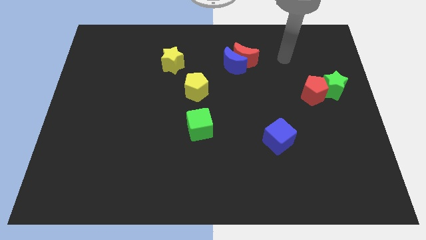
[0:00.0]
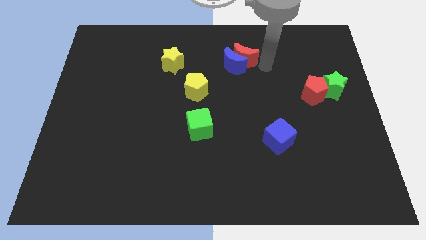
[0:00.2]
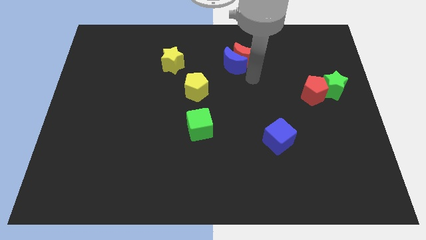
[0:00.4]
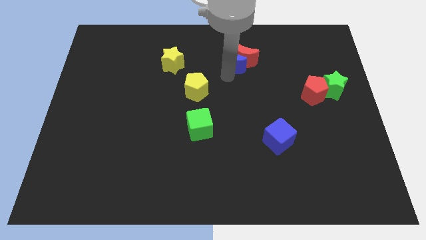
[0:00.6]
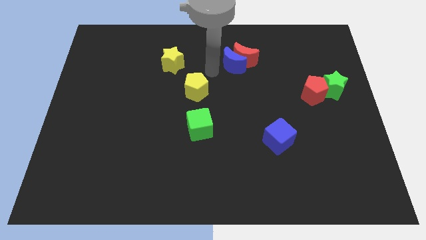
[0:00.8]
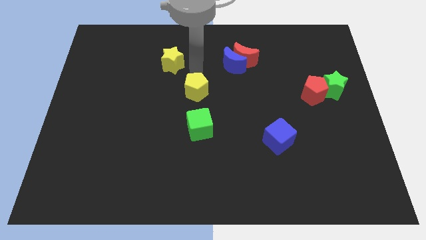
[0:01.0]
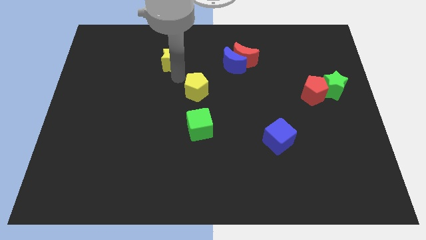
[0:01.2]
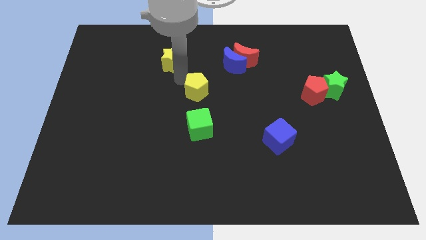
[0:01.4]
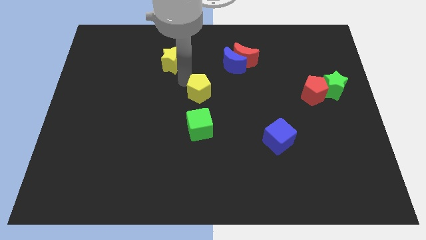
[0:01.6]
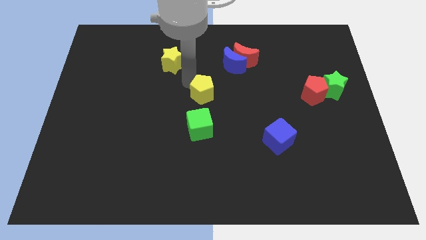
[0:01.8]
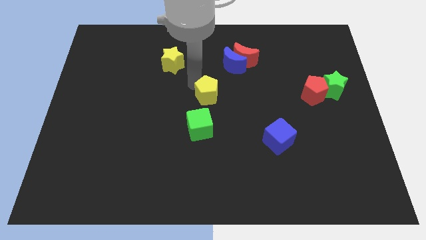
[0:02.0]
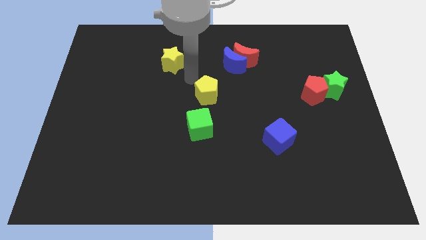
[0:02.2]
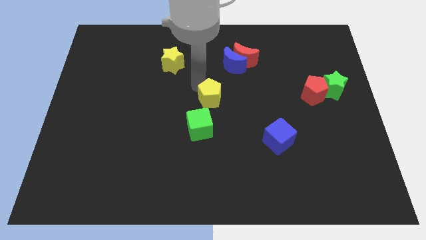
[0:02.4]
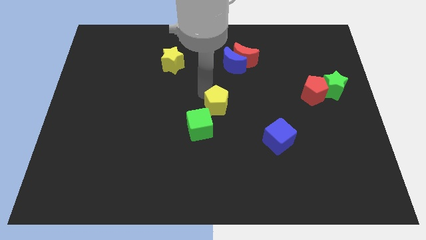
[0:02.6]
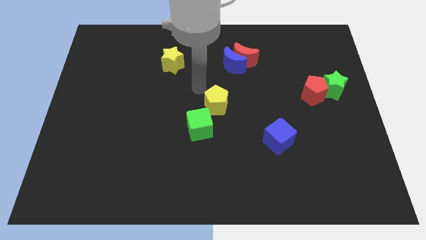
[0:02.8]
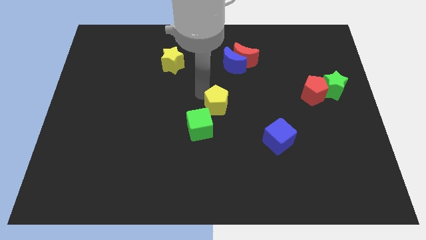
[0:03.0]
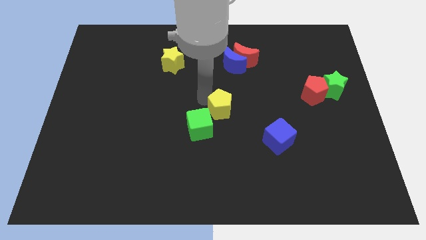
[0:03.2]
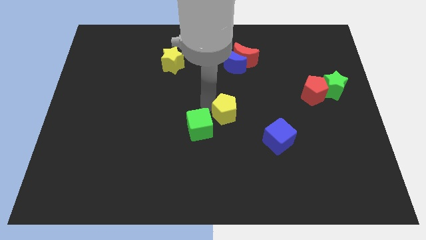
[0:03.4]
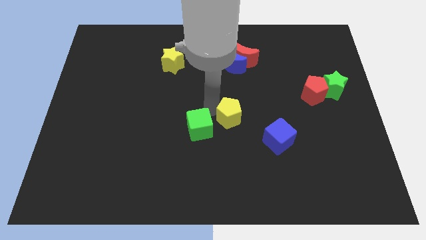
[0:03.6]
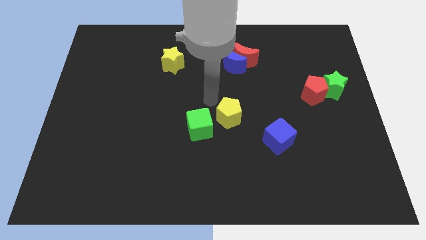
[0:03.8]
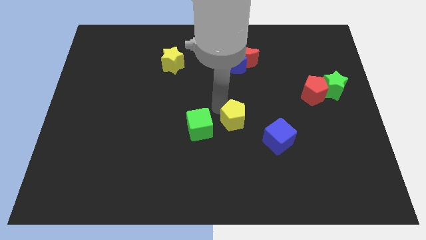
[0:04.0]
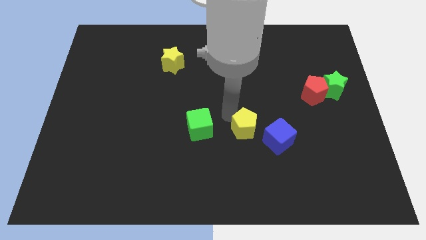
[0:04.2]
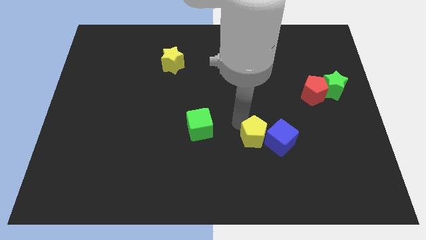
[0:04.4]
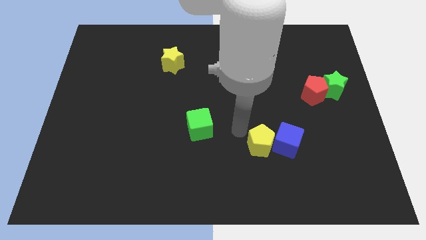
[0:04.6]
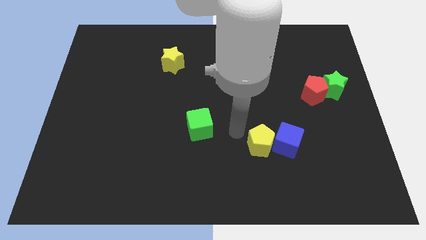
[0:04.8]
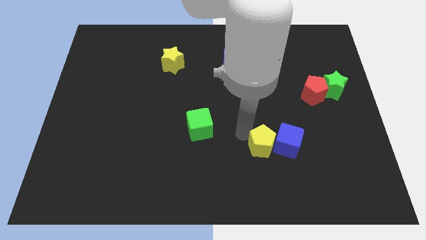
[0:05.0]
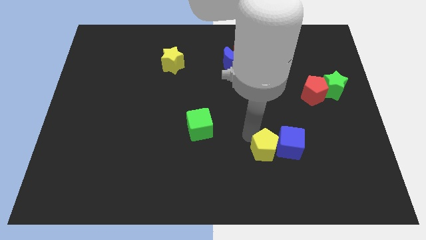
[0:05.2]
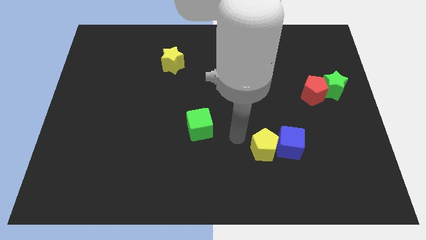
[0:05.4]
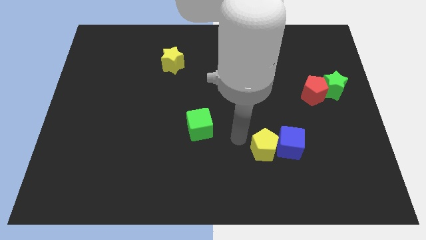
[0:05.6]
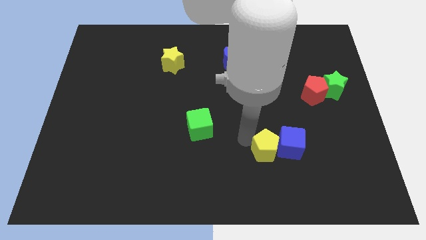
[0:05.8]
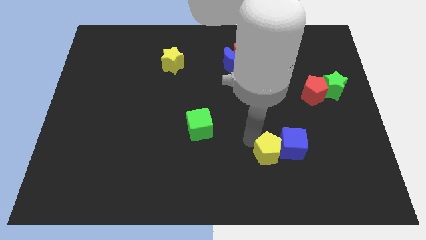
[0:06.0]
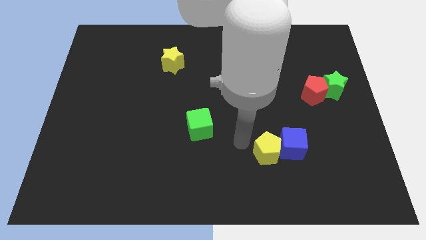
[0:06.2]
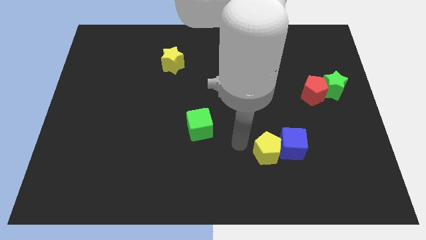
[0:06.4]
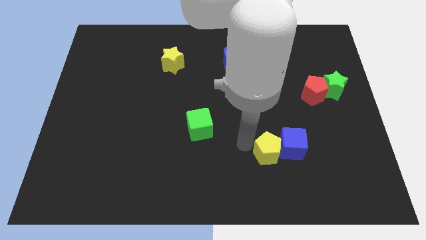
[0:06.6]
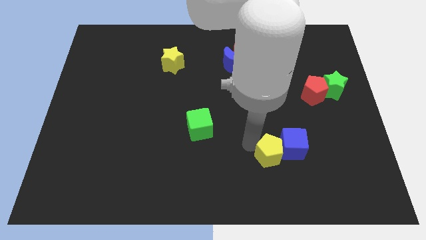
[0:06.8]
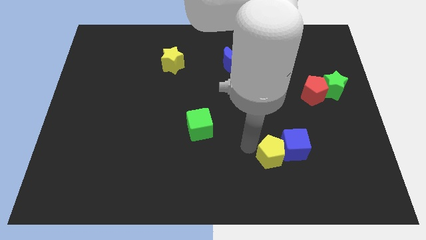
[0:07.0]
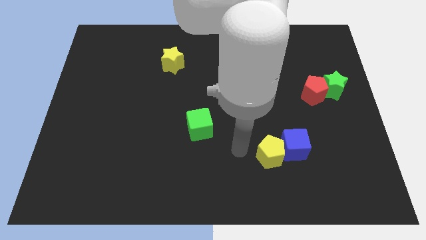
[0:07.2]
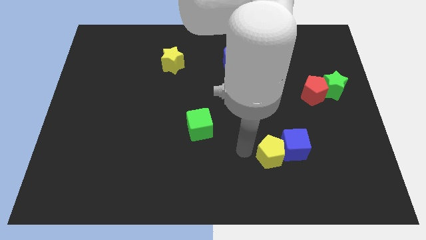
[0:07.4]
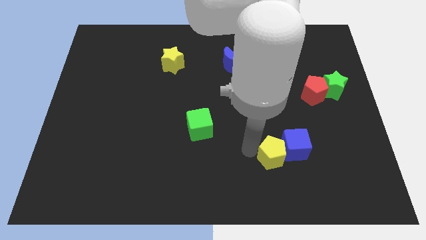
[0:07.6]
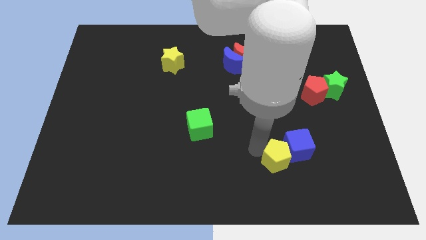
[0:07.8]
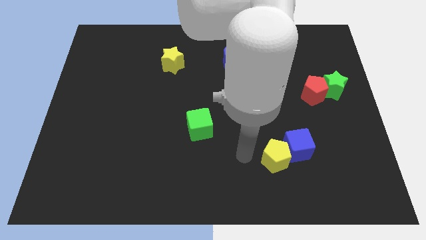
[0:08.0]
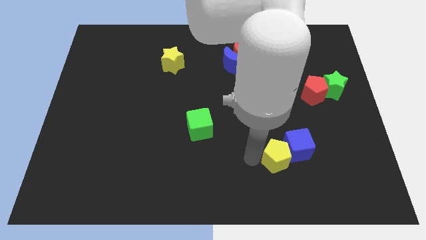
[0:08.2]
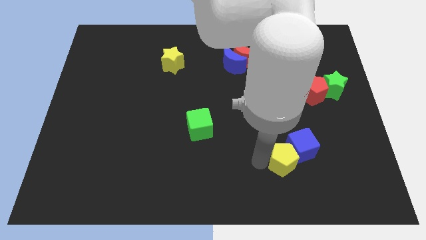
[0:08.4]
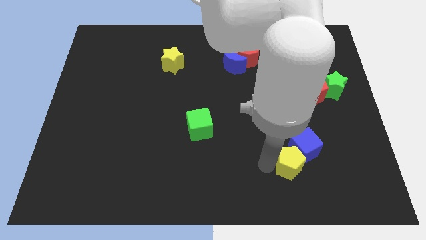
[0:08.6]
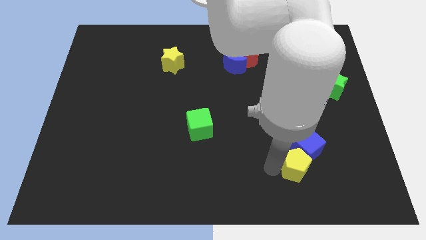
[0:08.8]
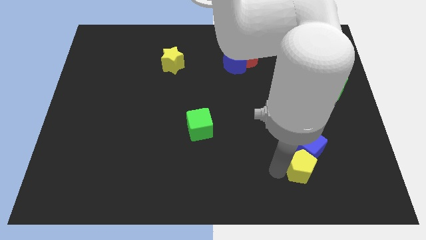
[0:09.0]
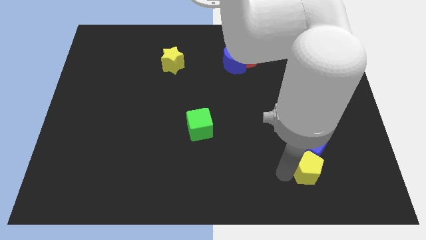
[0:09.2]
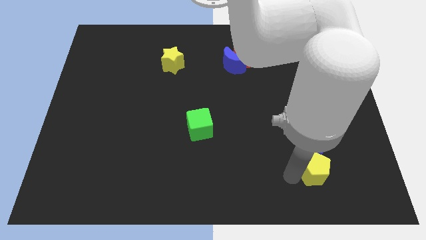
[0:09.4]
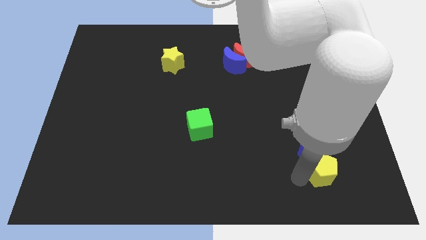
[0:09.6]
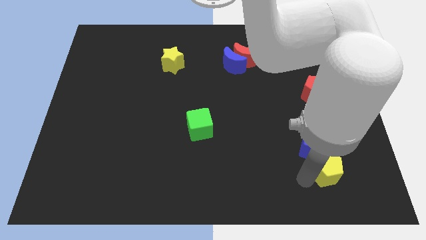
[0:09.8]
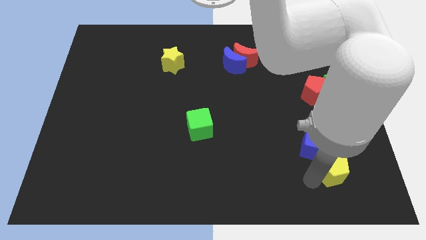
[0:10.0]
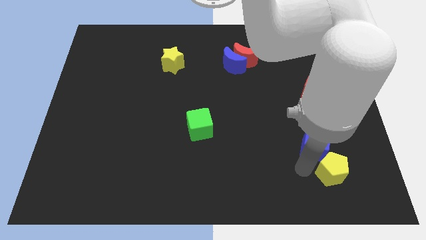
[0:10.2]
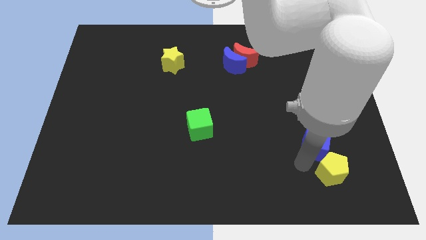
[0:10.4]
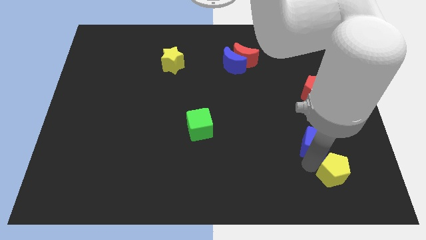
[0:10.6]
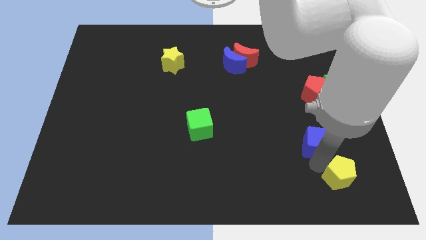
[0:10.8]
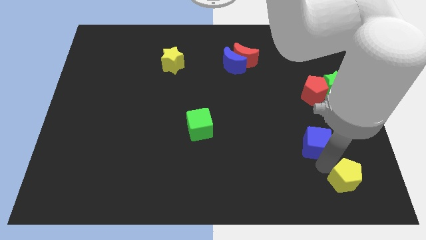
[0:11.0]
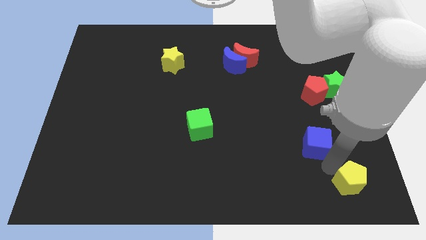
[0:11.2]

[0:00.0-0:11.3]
move the yellow pentagon to the bottom right
